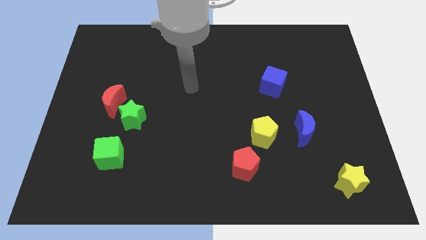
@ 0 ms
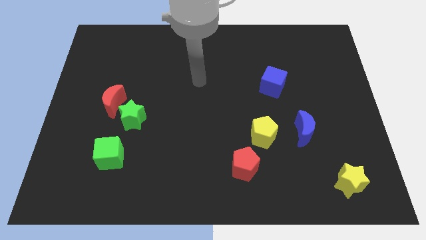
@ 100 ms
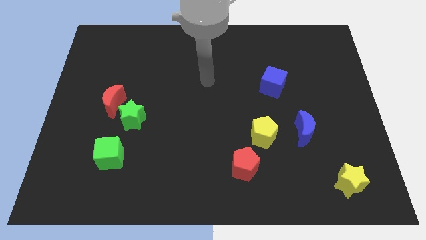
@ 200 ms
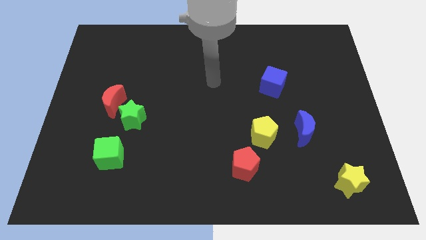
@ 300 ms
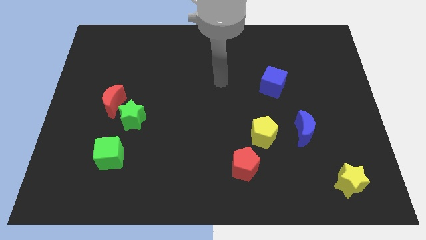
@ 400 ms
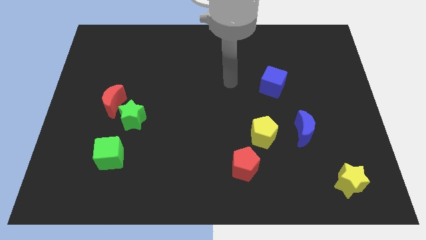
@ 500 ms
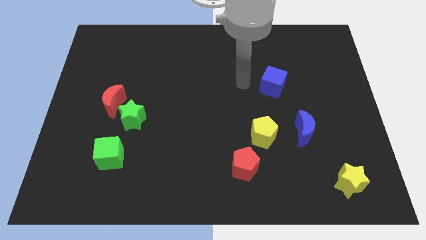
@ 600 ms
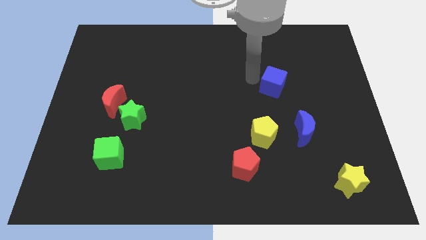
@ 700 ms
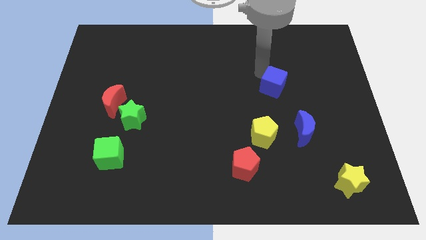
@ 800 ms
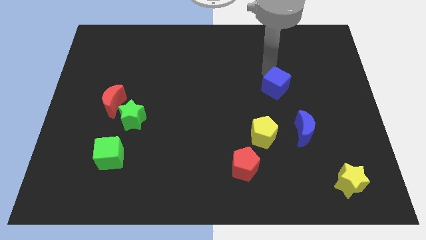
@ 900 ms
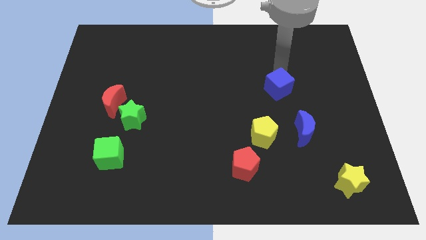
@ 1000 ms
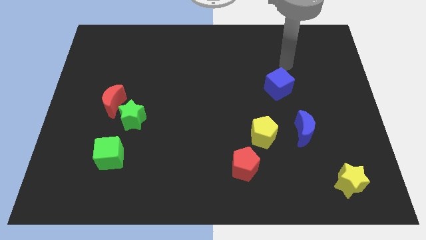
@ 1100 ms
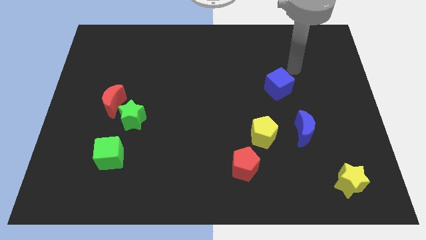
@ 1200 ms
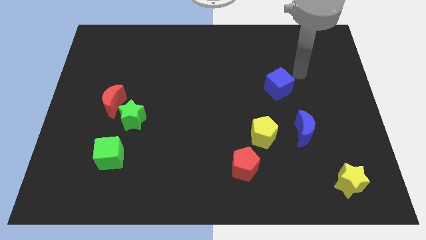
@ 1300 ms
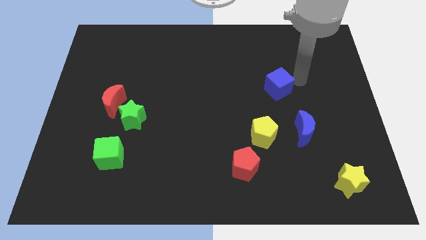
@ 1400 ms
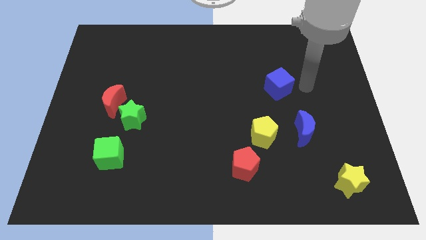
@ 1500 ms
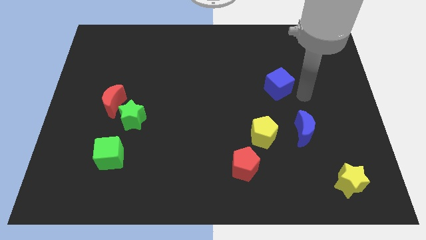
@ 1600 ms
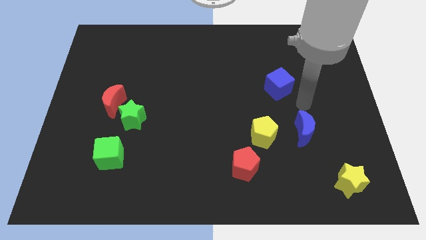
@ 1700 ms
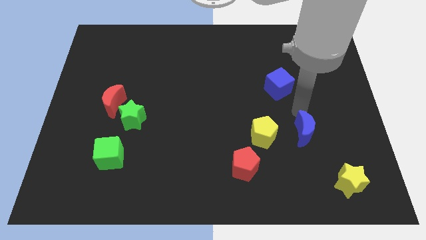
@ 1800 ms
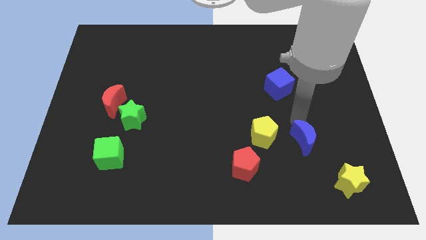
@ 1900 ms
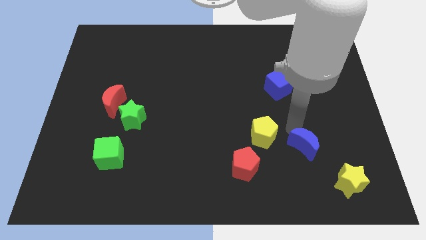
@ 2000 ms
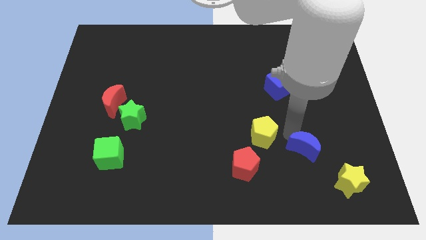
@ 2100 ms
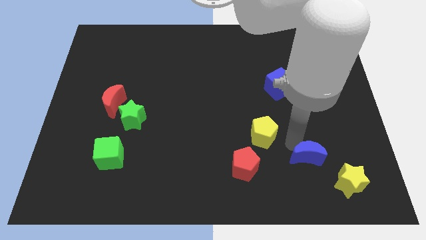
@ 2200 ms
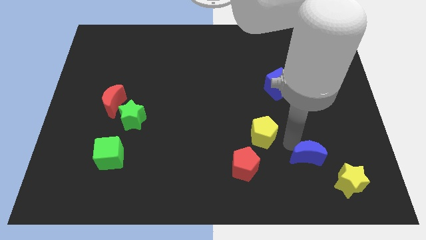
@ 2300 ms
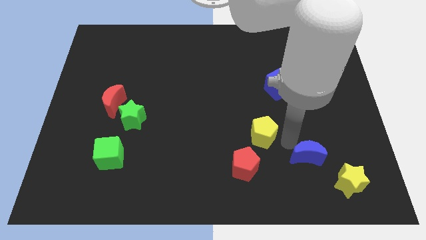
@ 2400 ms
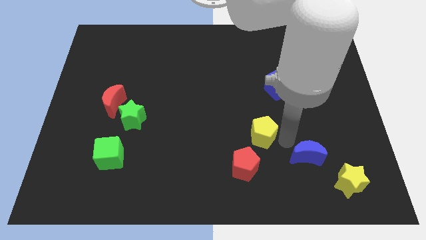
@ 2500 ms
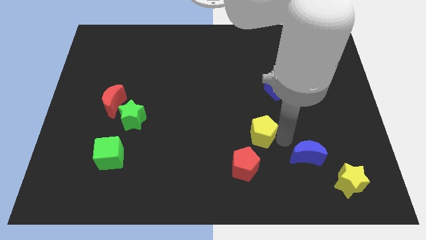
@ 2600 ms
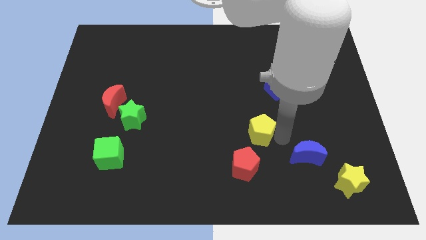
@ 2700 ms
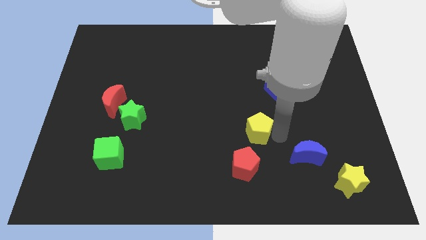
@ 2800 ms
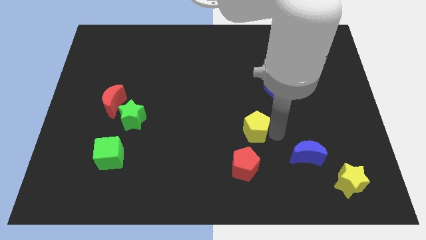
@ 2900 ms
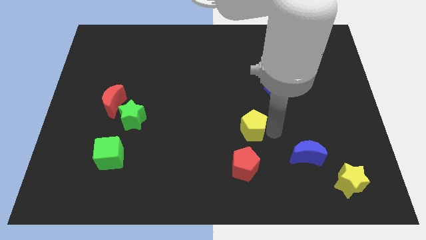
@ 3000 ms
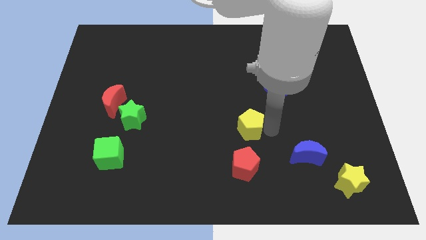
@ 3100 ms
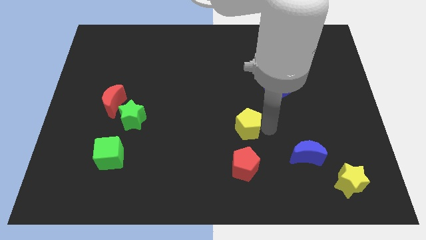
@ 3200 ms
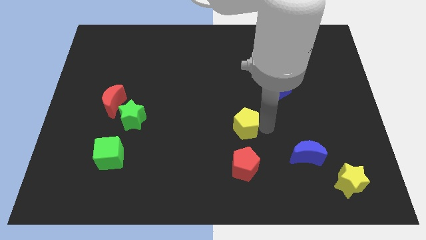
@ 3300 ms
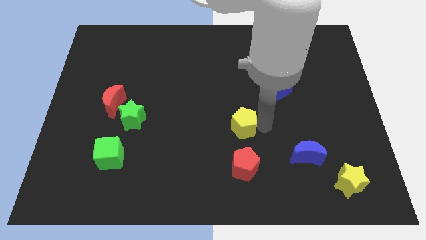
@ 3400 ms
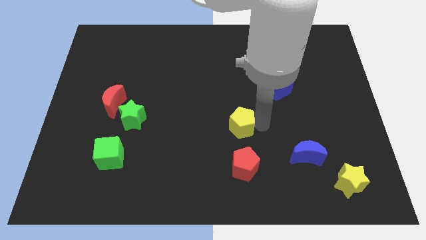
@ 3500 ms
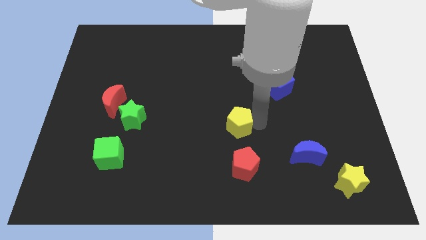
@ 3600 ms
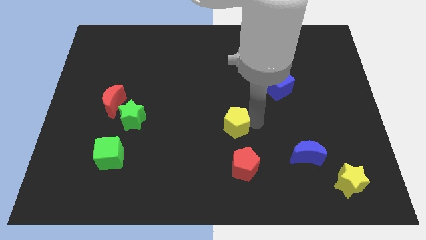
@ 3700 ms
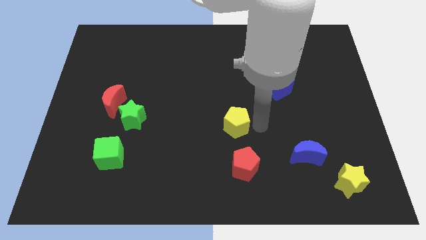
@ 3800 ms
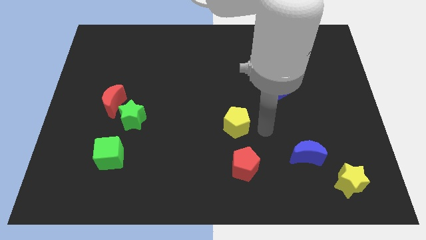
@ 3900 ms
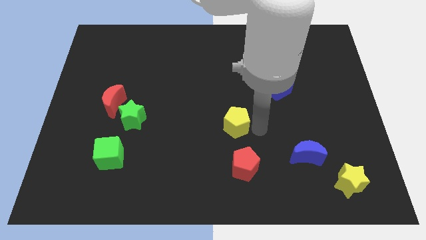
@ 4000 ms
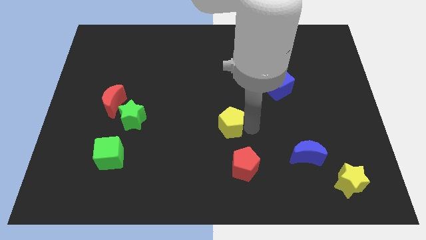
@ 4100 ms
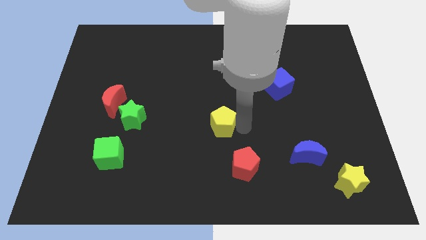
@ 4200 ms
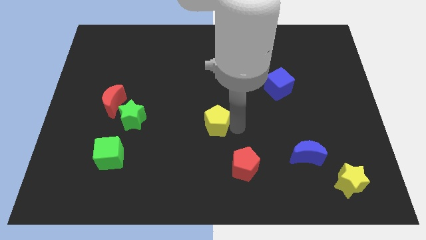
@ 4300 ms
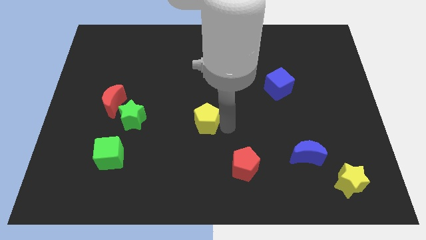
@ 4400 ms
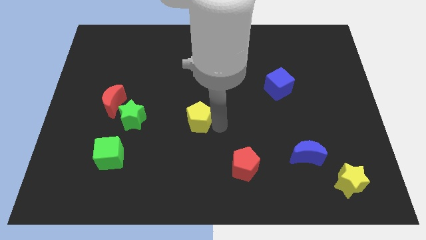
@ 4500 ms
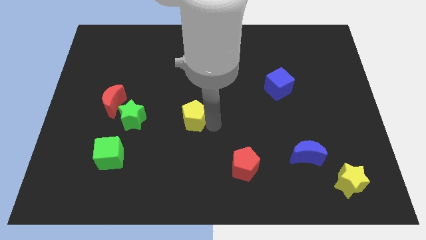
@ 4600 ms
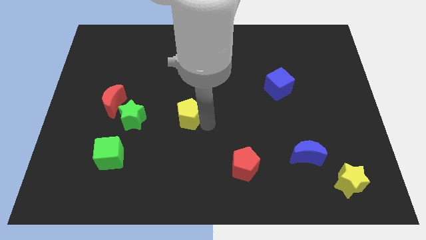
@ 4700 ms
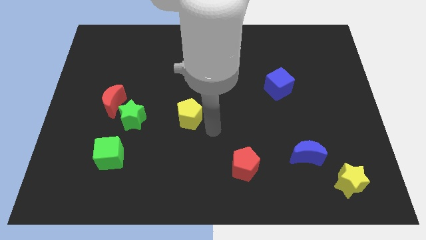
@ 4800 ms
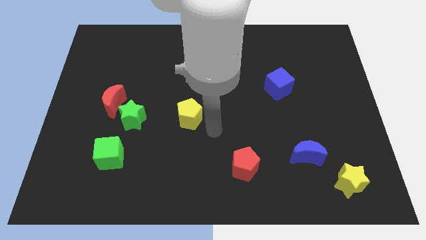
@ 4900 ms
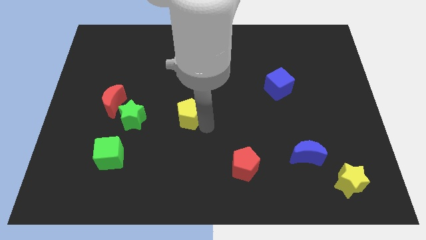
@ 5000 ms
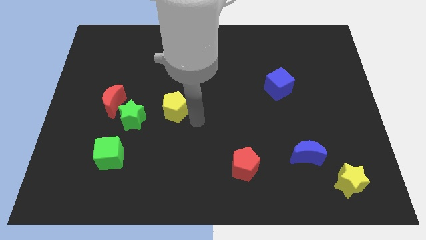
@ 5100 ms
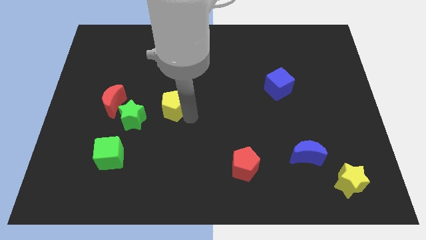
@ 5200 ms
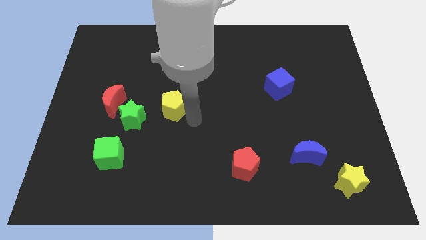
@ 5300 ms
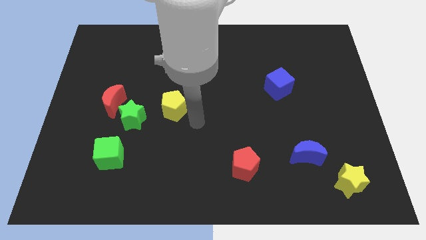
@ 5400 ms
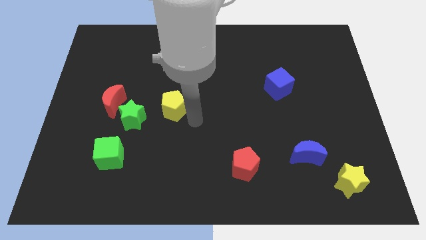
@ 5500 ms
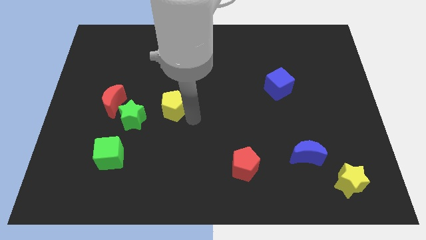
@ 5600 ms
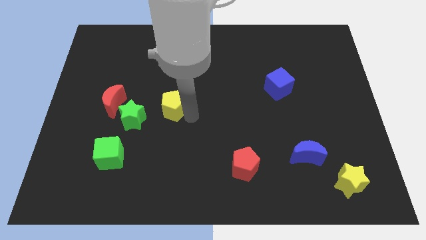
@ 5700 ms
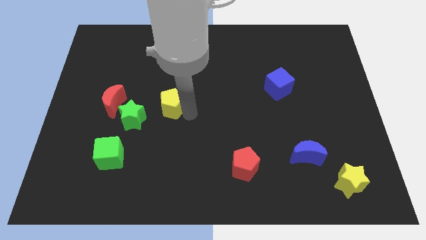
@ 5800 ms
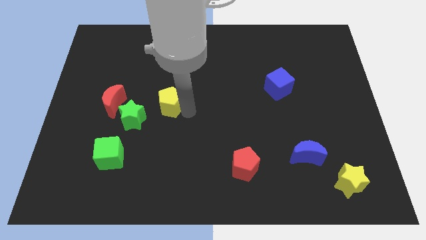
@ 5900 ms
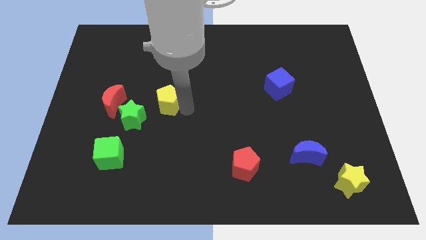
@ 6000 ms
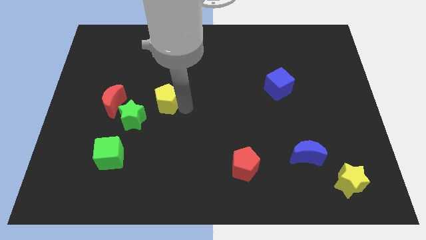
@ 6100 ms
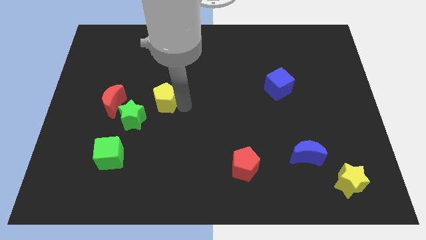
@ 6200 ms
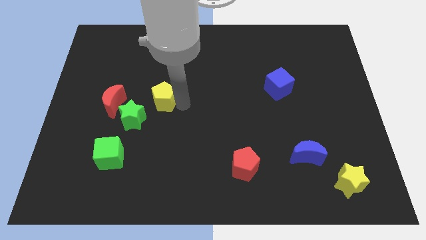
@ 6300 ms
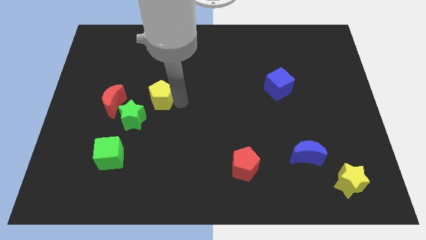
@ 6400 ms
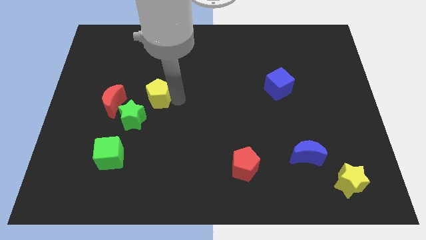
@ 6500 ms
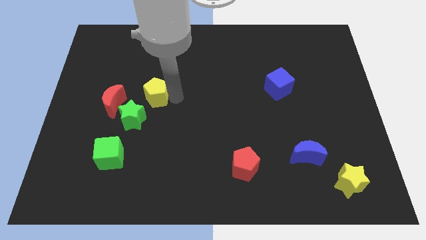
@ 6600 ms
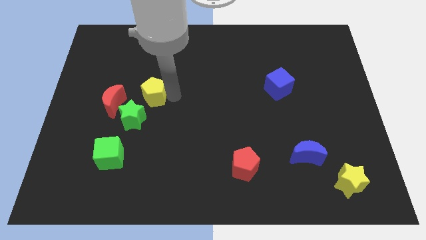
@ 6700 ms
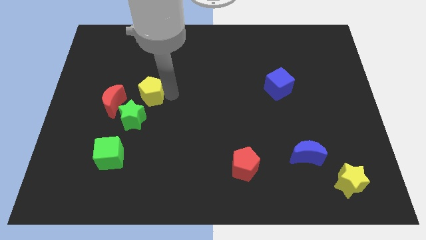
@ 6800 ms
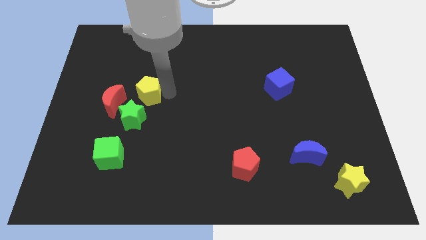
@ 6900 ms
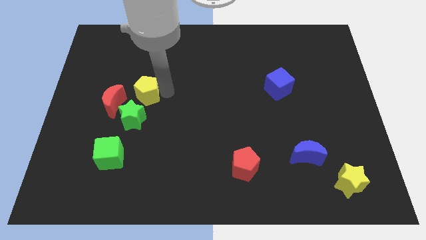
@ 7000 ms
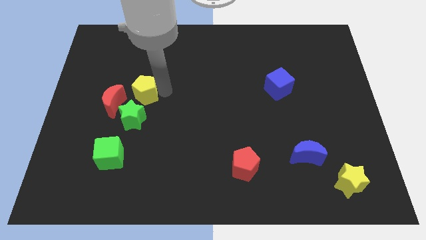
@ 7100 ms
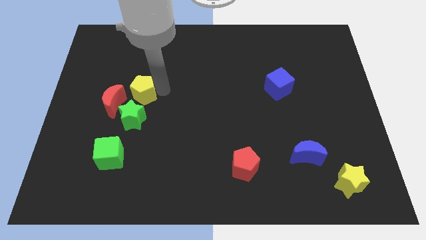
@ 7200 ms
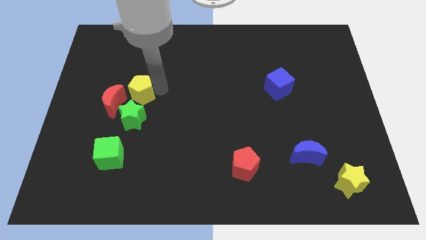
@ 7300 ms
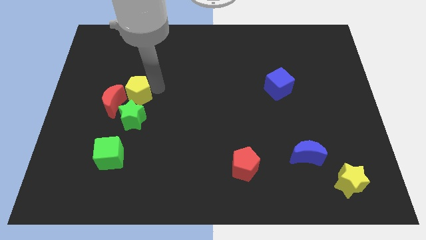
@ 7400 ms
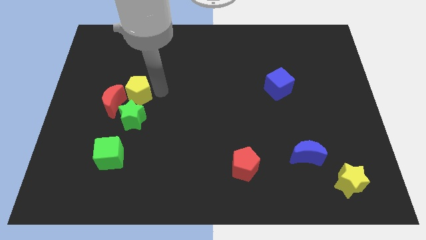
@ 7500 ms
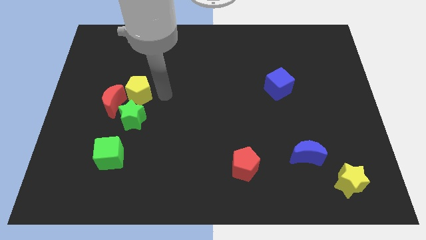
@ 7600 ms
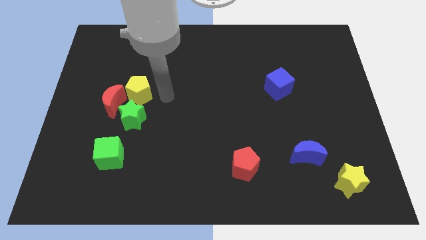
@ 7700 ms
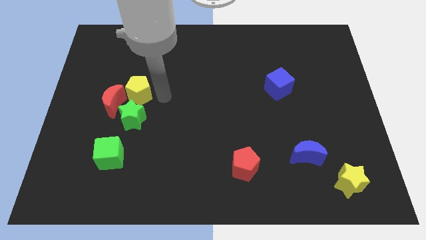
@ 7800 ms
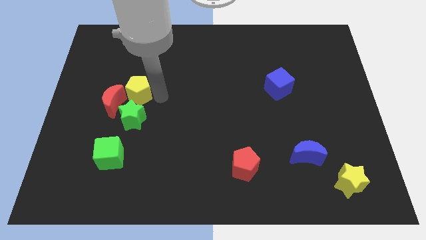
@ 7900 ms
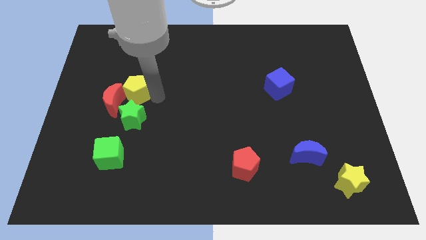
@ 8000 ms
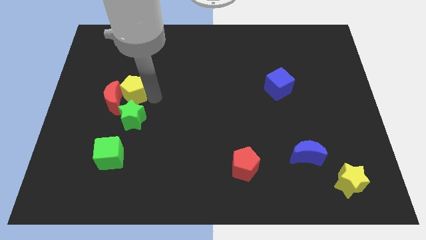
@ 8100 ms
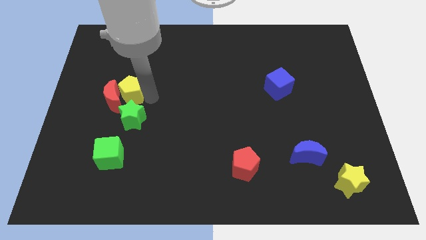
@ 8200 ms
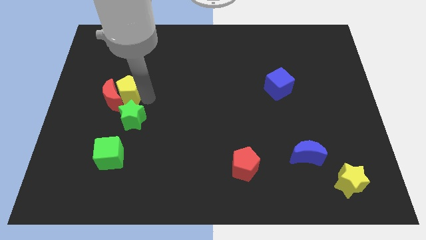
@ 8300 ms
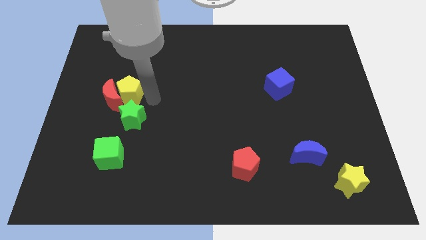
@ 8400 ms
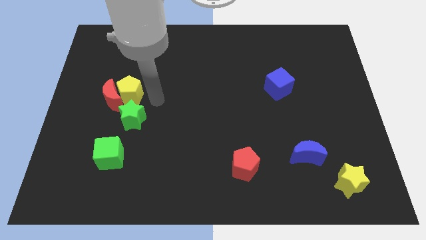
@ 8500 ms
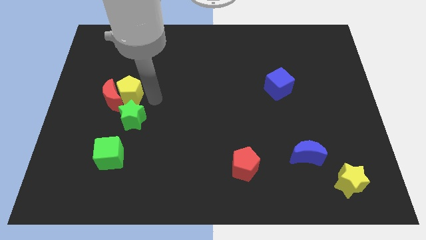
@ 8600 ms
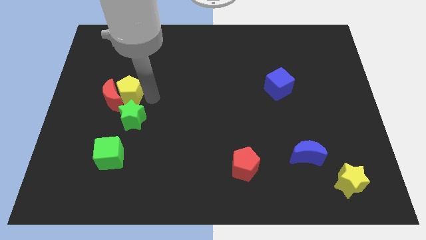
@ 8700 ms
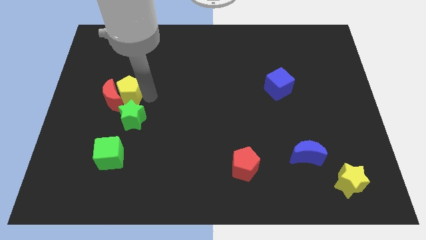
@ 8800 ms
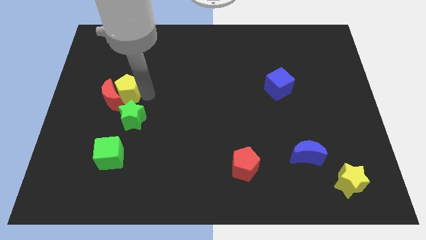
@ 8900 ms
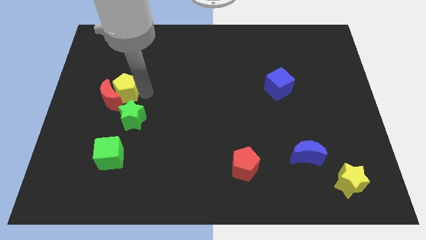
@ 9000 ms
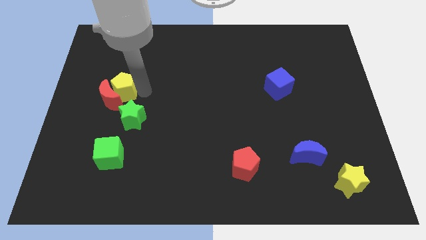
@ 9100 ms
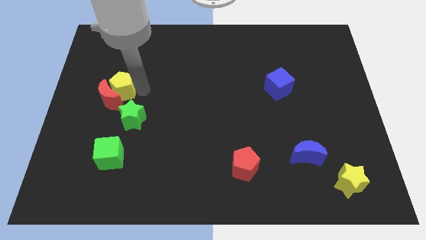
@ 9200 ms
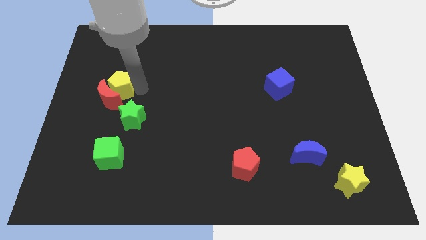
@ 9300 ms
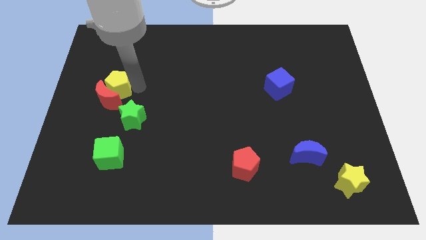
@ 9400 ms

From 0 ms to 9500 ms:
put the yellow pentagon diagonally up and to the left of the red moon
